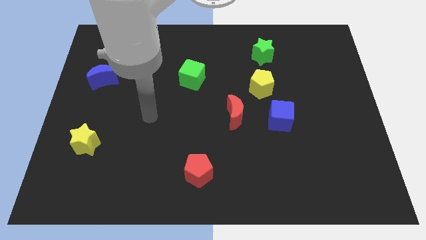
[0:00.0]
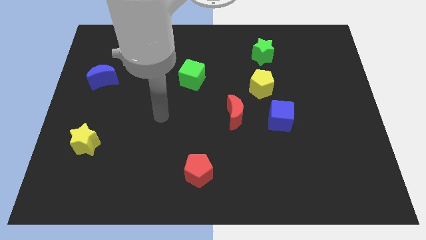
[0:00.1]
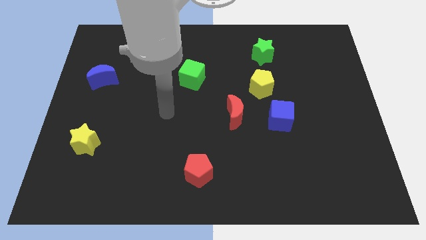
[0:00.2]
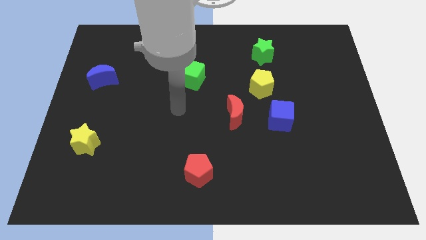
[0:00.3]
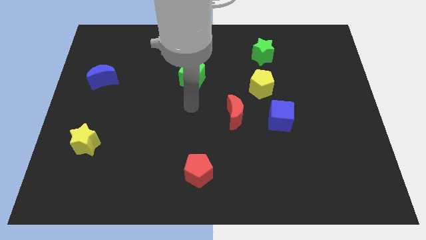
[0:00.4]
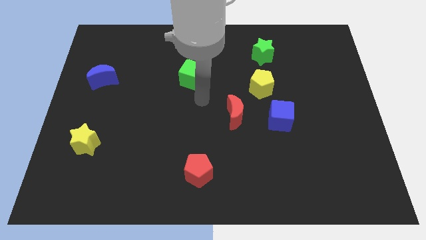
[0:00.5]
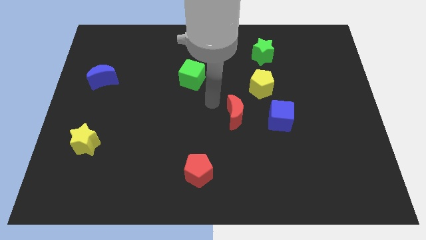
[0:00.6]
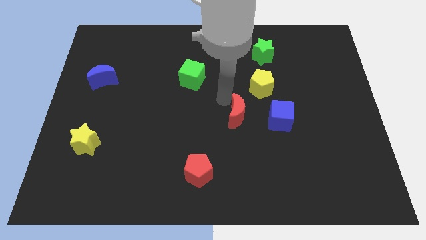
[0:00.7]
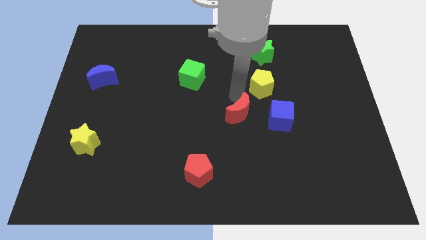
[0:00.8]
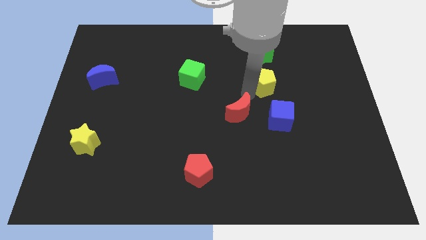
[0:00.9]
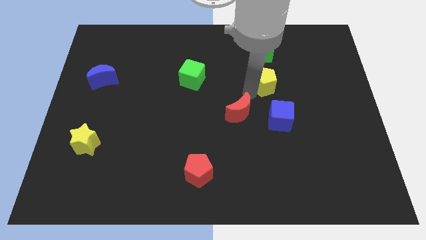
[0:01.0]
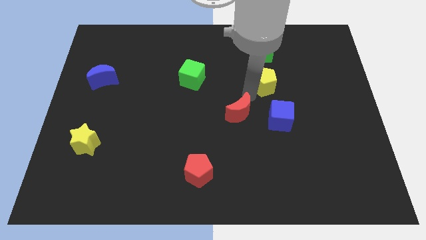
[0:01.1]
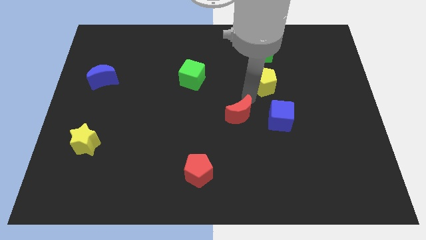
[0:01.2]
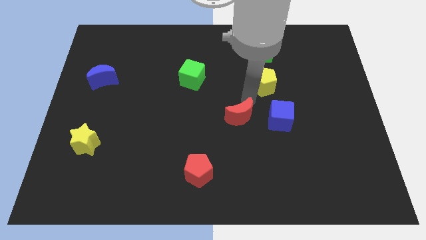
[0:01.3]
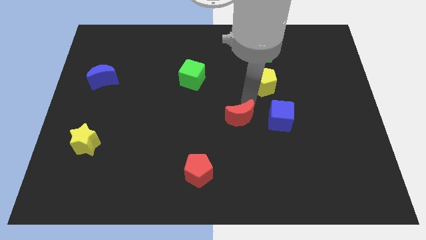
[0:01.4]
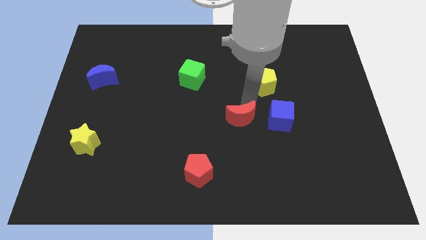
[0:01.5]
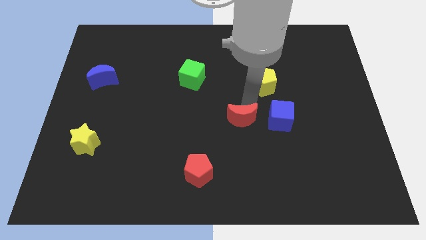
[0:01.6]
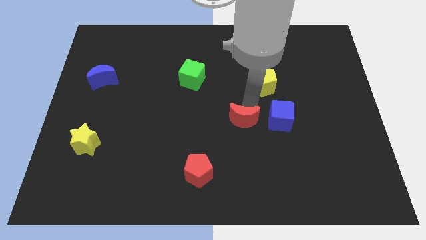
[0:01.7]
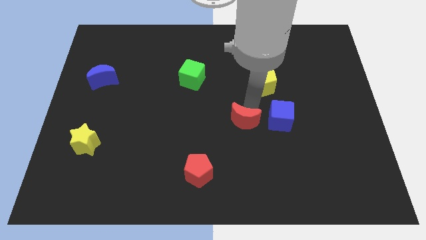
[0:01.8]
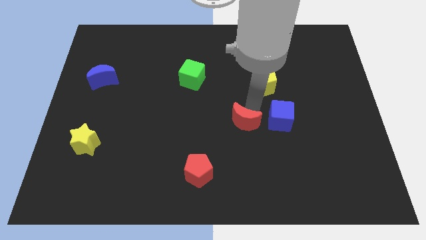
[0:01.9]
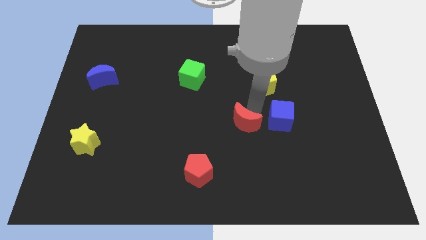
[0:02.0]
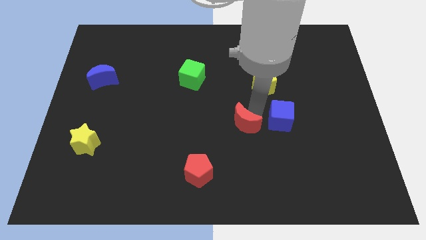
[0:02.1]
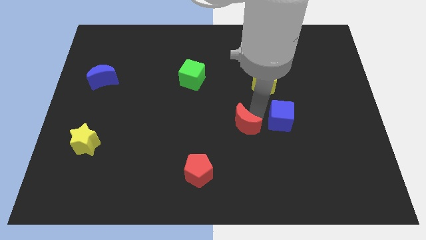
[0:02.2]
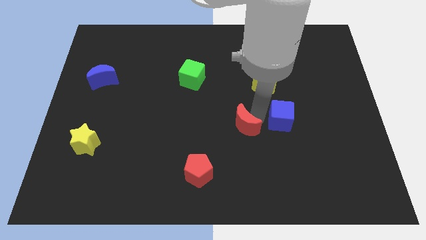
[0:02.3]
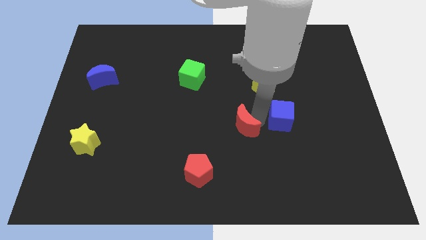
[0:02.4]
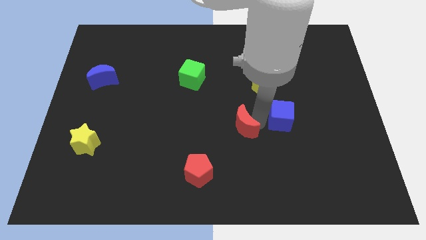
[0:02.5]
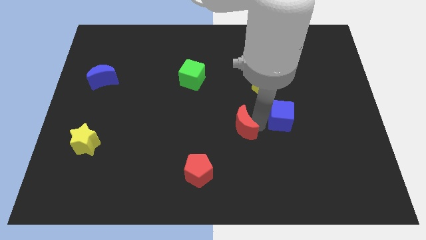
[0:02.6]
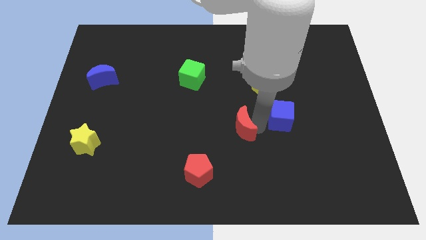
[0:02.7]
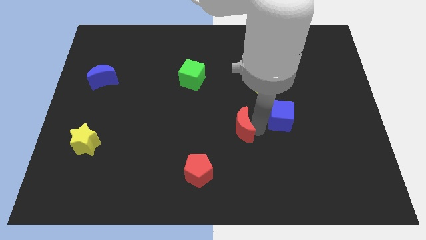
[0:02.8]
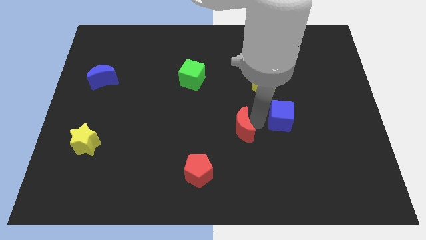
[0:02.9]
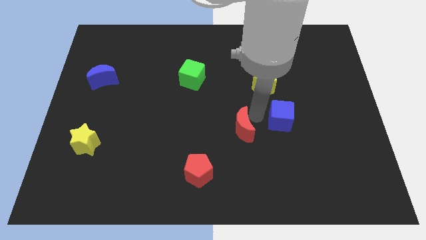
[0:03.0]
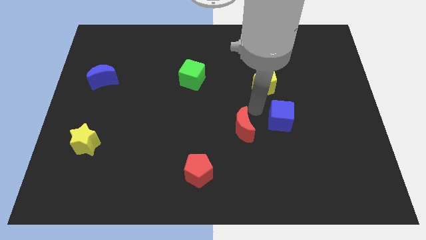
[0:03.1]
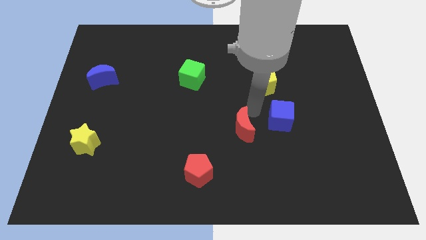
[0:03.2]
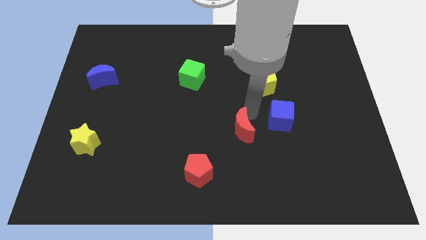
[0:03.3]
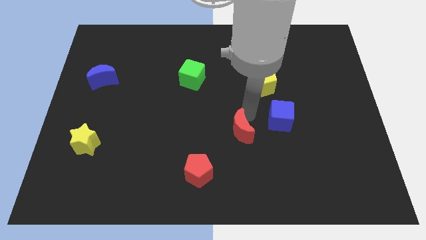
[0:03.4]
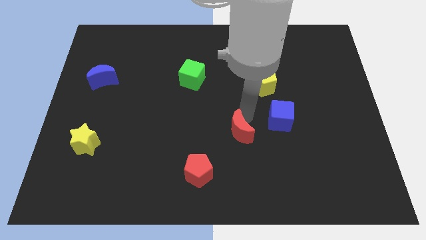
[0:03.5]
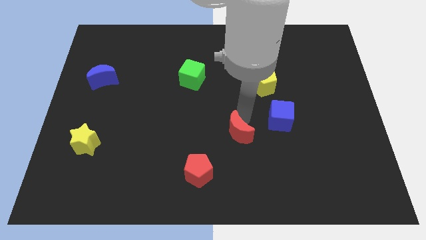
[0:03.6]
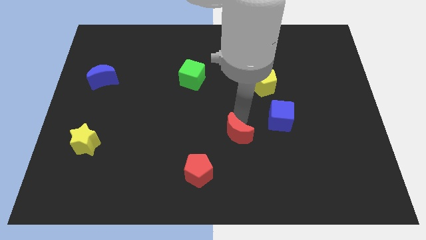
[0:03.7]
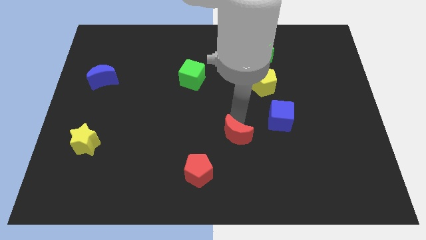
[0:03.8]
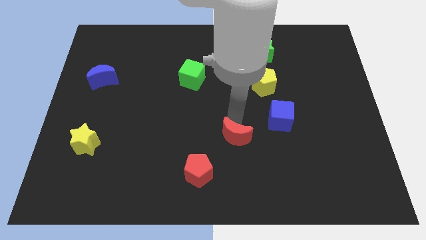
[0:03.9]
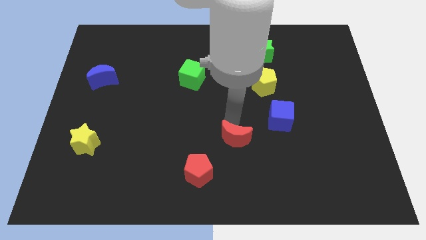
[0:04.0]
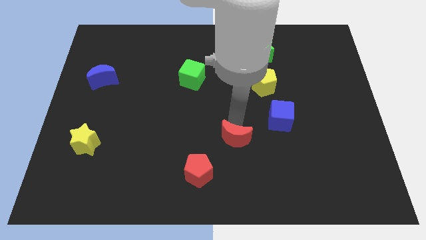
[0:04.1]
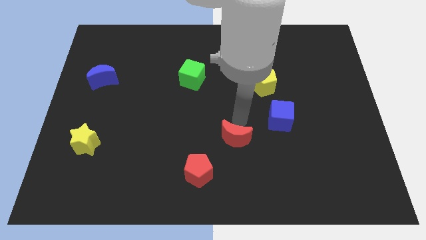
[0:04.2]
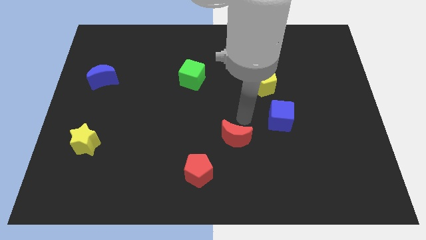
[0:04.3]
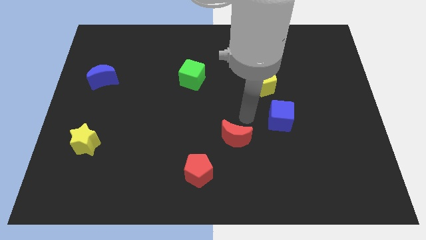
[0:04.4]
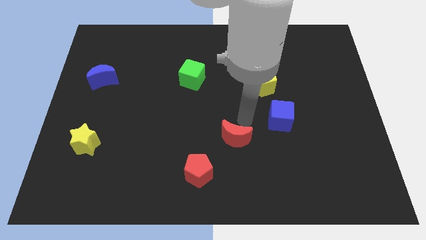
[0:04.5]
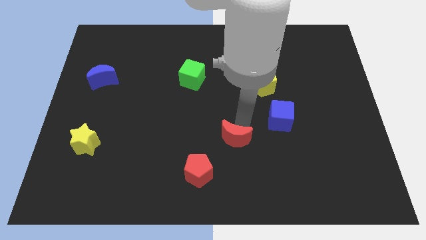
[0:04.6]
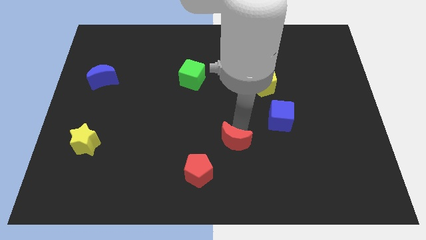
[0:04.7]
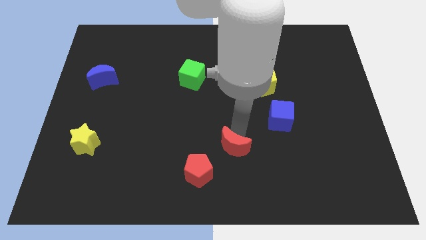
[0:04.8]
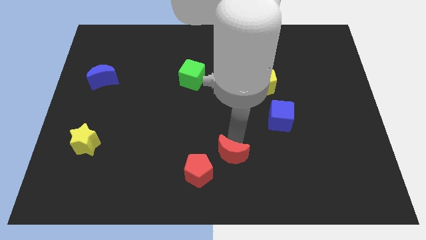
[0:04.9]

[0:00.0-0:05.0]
put the red moon to the bottom side

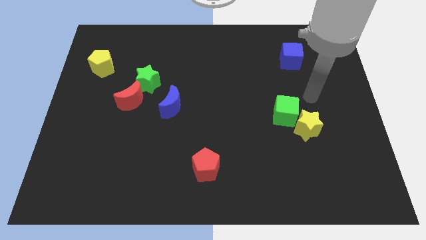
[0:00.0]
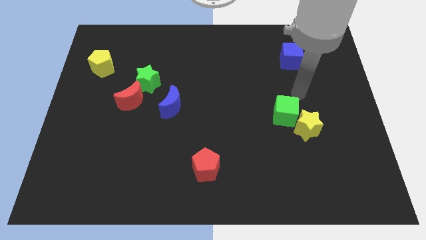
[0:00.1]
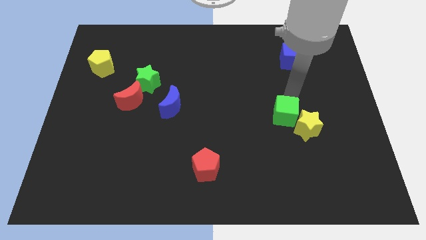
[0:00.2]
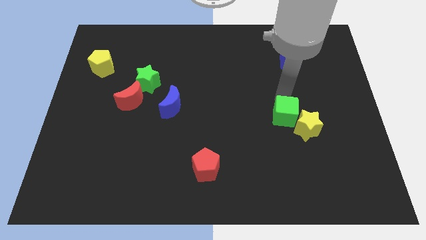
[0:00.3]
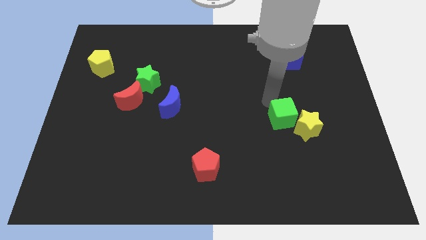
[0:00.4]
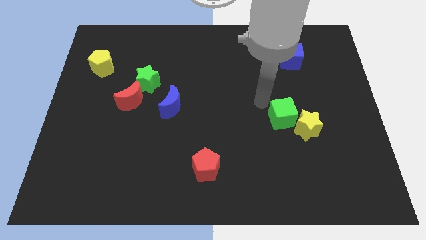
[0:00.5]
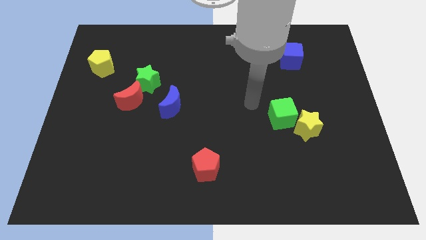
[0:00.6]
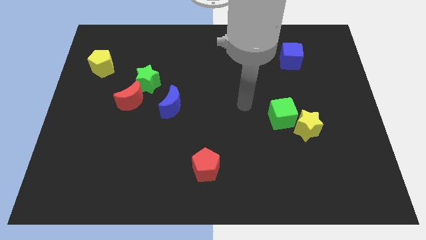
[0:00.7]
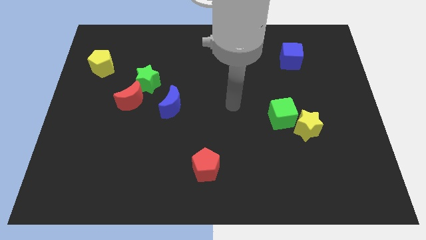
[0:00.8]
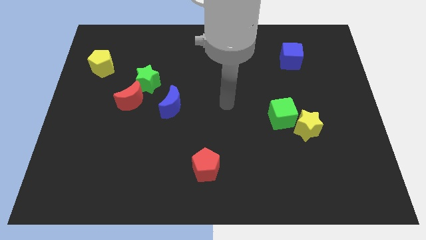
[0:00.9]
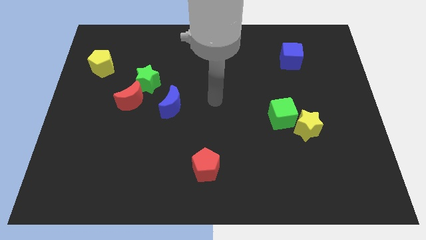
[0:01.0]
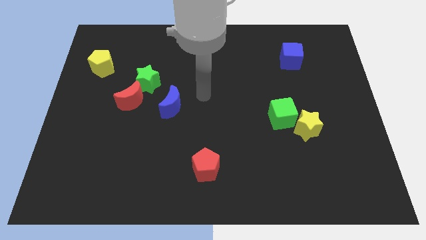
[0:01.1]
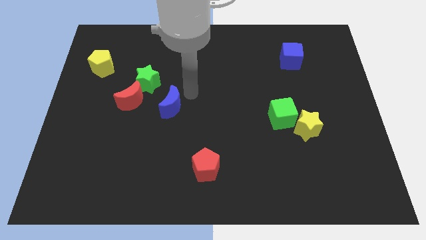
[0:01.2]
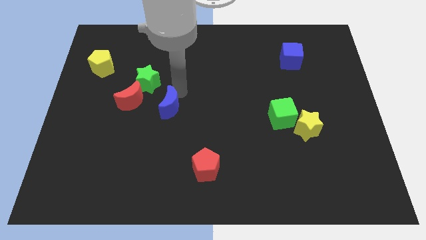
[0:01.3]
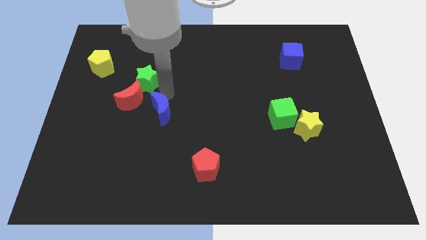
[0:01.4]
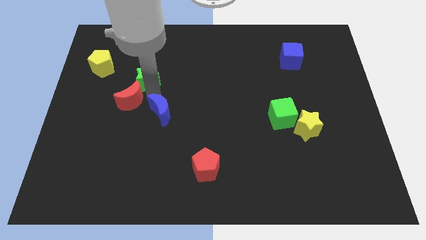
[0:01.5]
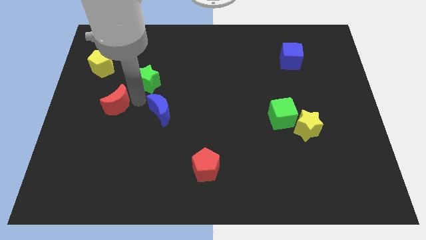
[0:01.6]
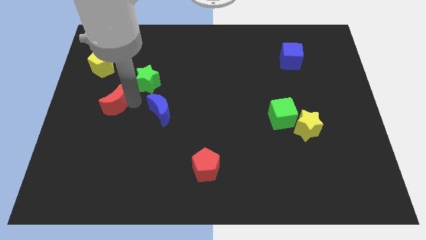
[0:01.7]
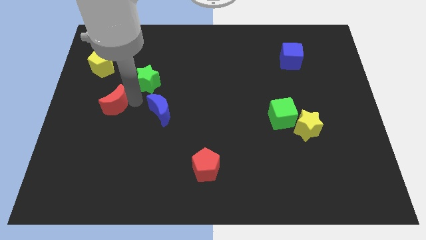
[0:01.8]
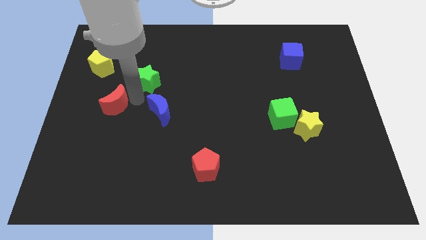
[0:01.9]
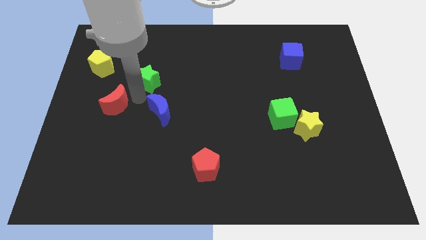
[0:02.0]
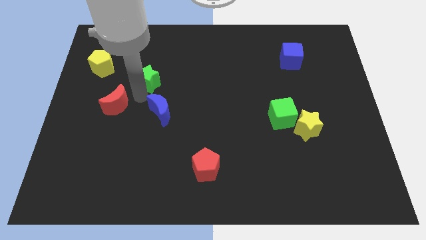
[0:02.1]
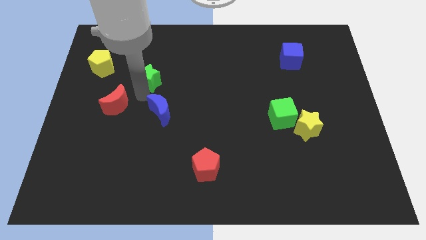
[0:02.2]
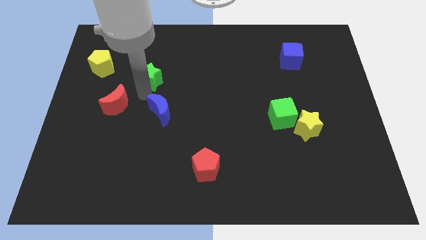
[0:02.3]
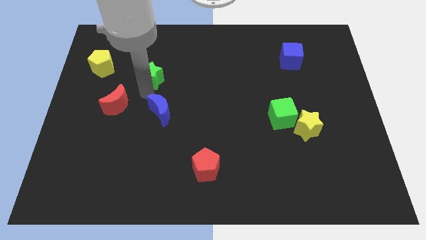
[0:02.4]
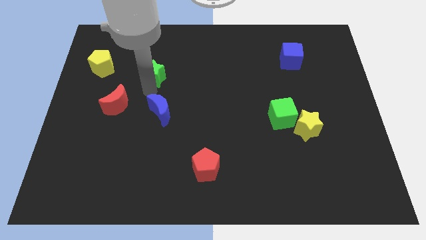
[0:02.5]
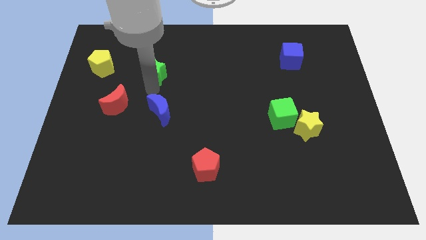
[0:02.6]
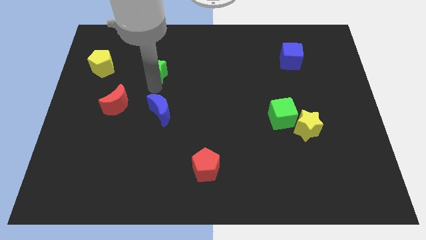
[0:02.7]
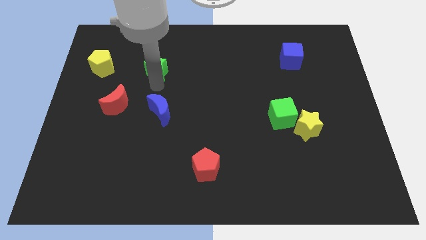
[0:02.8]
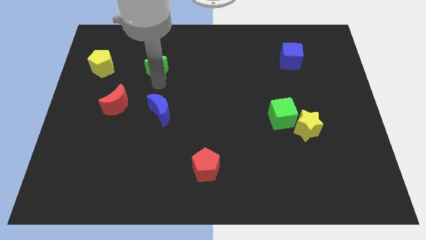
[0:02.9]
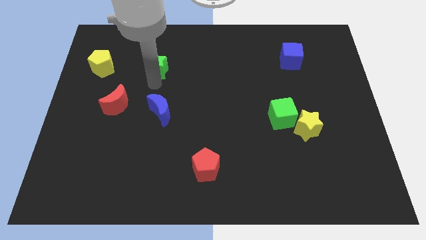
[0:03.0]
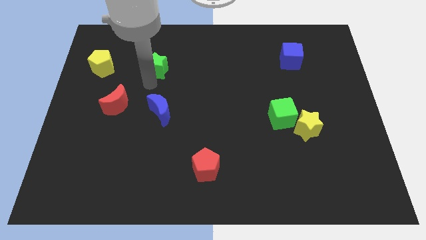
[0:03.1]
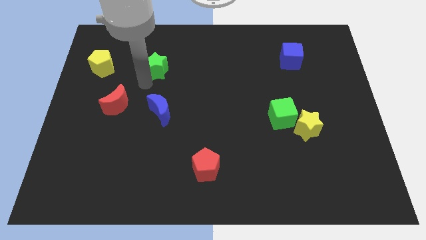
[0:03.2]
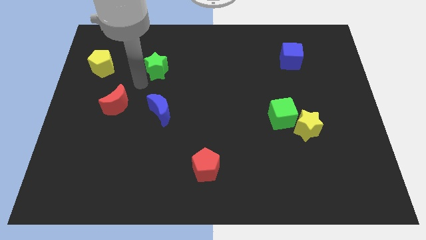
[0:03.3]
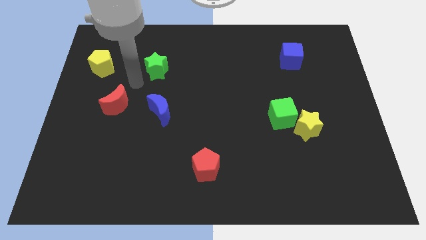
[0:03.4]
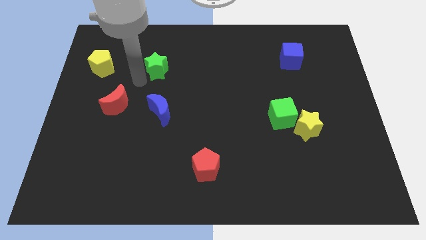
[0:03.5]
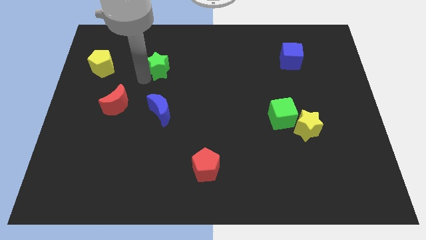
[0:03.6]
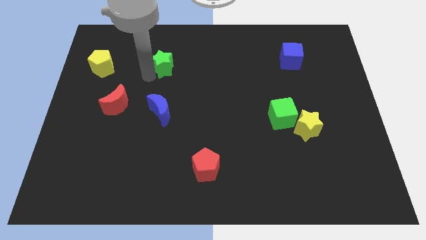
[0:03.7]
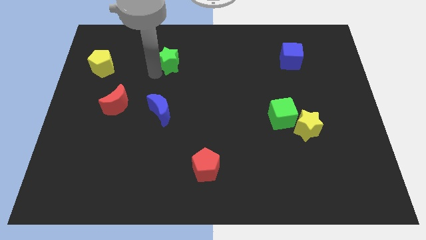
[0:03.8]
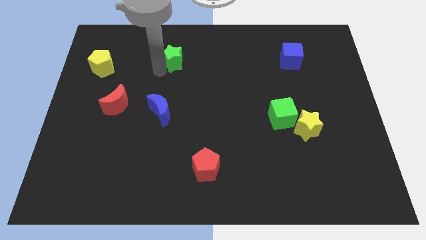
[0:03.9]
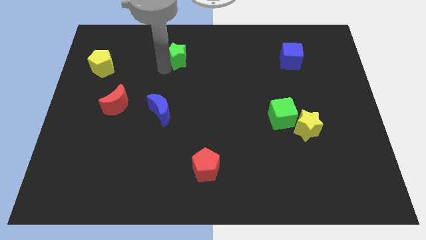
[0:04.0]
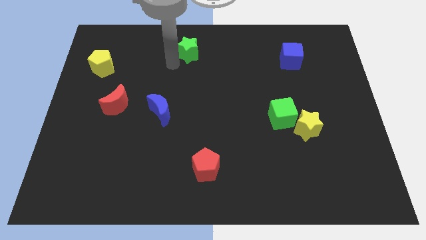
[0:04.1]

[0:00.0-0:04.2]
put the green star to the top
